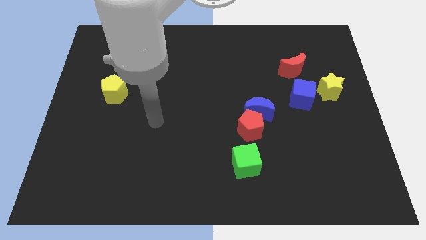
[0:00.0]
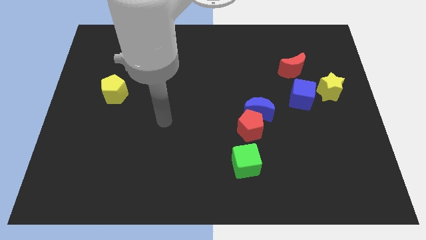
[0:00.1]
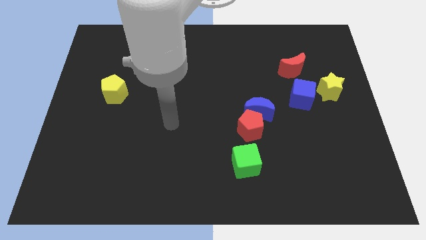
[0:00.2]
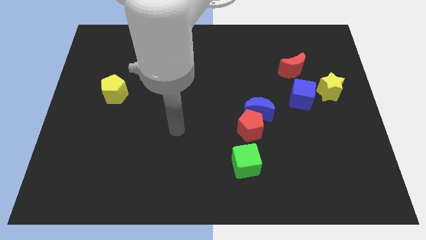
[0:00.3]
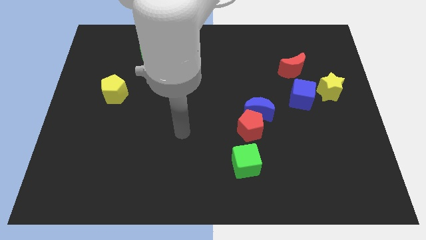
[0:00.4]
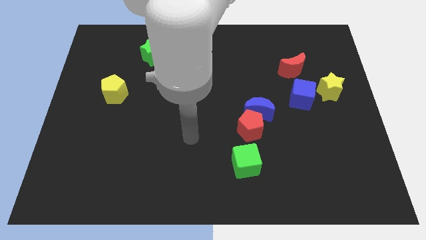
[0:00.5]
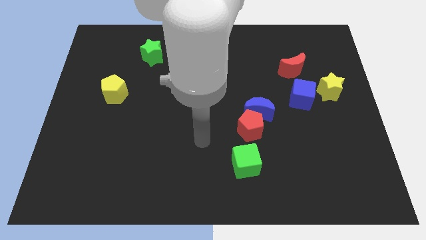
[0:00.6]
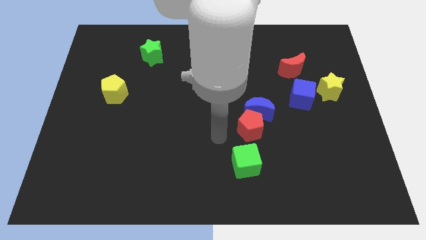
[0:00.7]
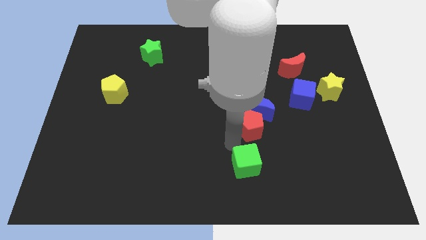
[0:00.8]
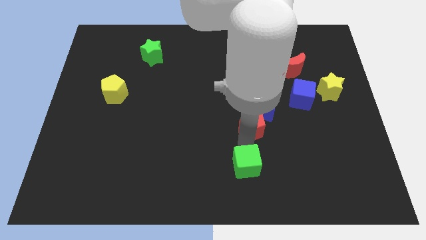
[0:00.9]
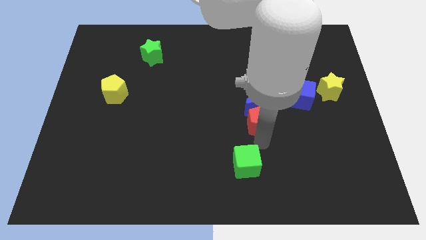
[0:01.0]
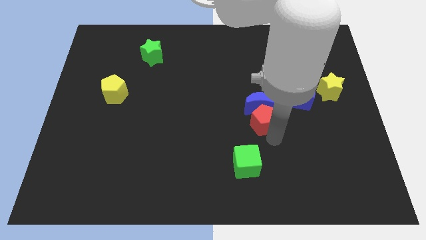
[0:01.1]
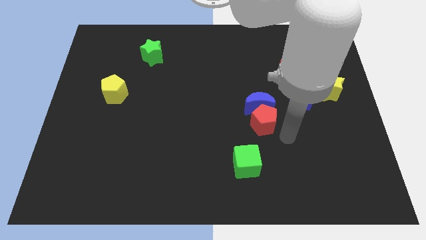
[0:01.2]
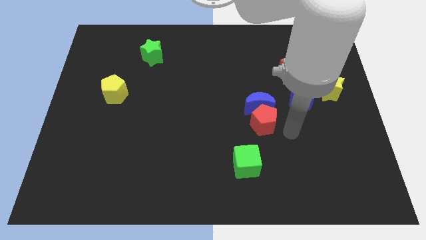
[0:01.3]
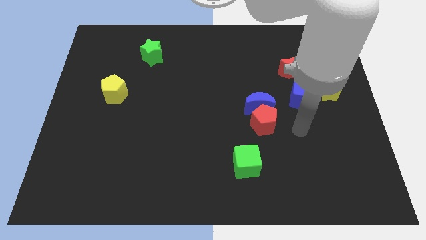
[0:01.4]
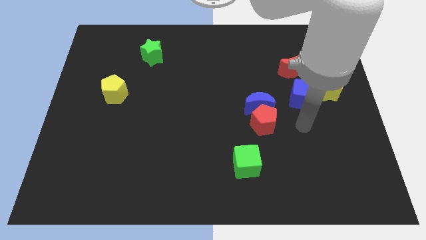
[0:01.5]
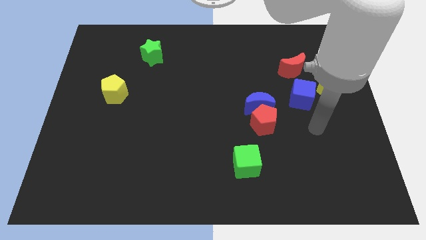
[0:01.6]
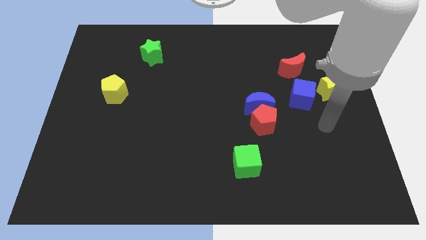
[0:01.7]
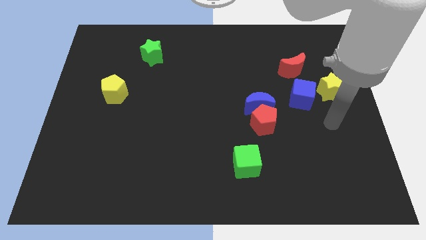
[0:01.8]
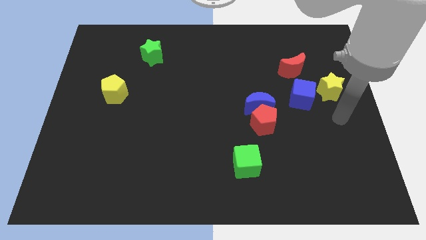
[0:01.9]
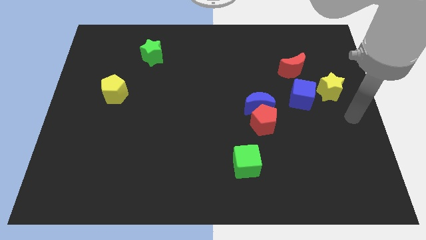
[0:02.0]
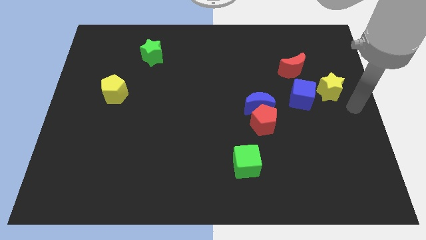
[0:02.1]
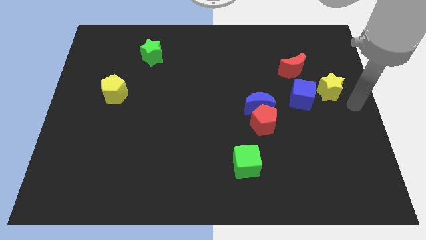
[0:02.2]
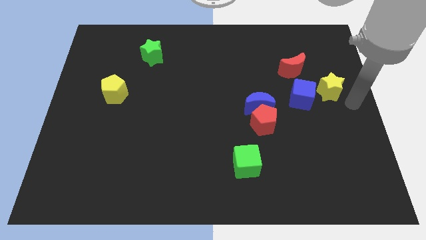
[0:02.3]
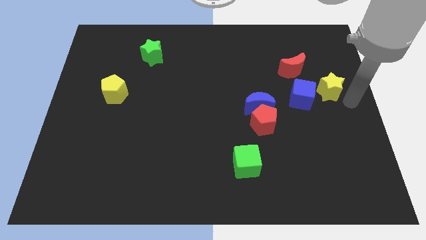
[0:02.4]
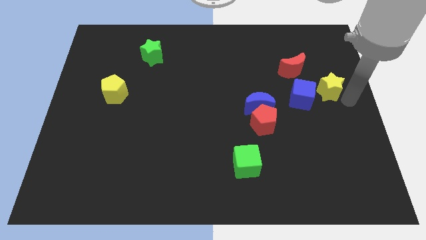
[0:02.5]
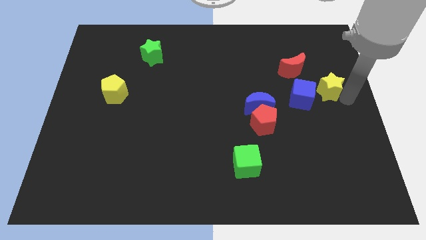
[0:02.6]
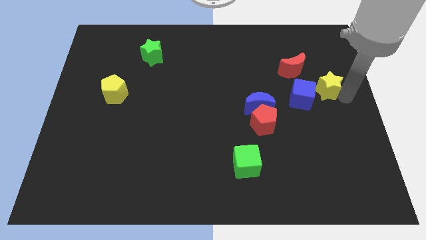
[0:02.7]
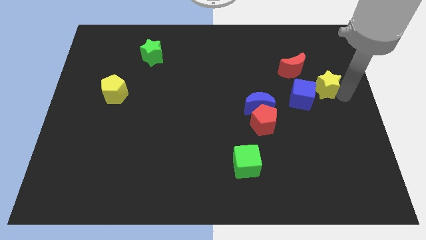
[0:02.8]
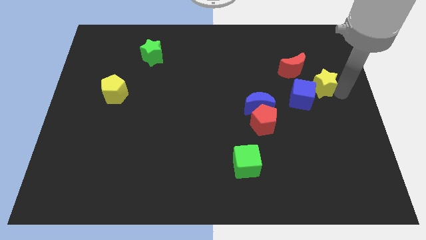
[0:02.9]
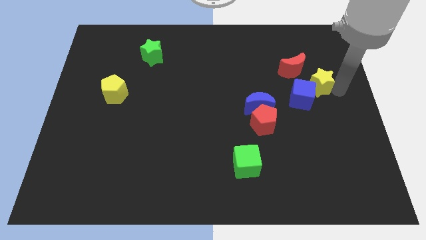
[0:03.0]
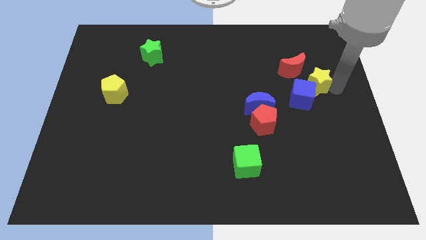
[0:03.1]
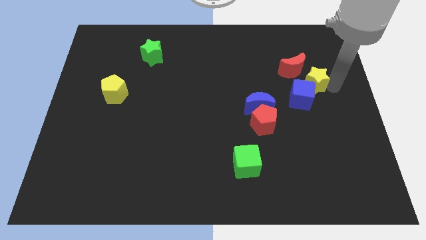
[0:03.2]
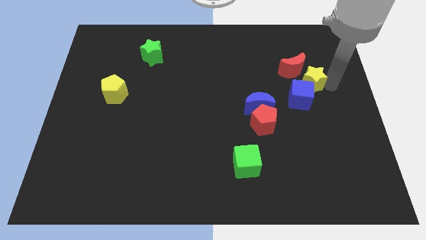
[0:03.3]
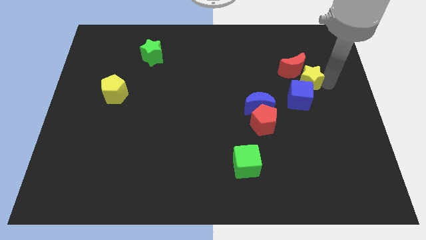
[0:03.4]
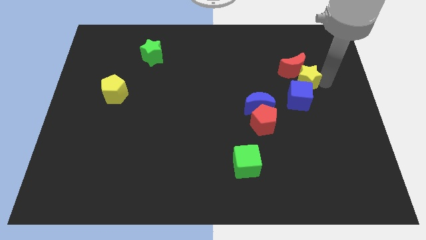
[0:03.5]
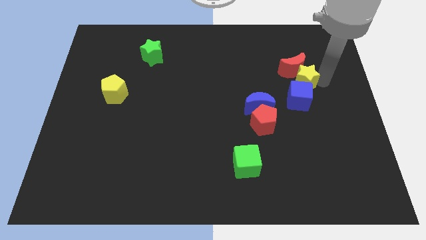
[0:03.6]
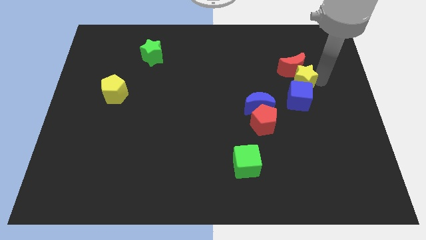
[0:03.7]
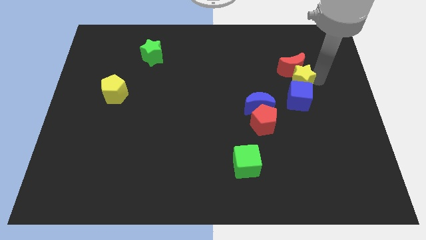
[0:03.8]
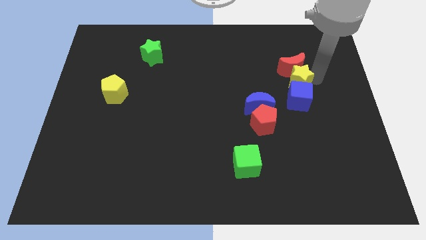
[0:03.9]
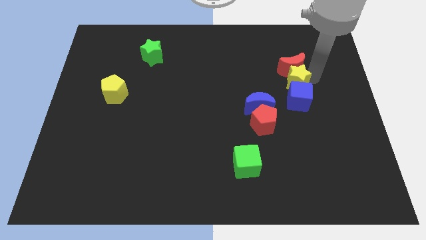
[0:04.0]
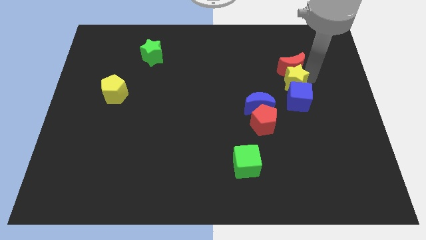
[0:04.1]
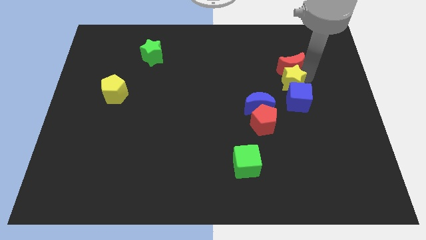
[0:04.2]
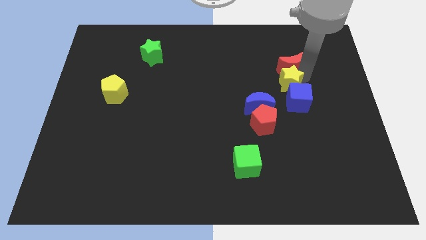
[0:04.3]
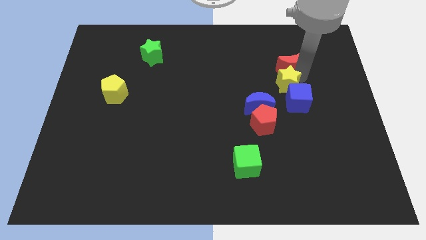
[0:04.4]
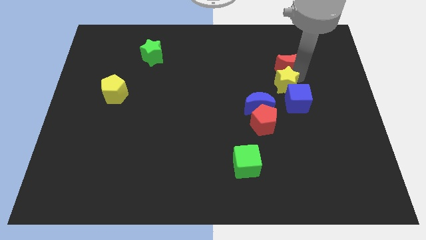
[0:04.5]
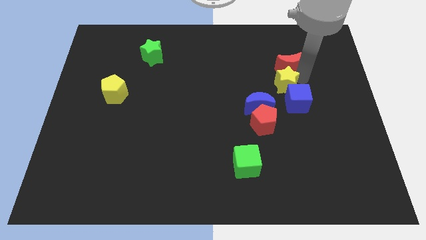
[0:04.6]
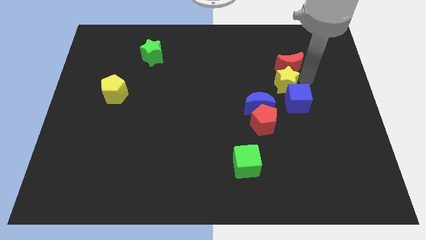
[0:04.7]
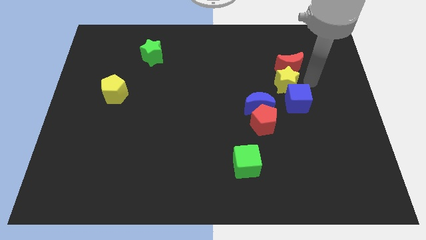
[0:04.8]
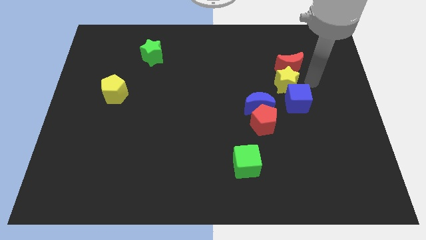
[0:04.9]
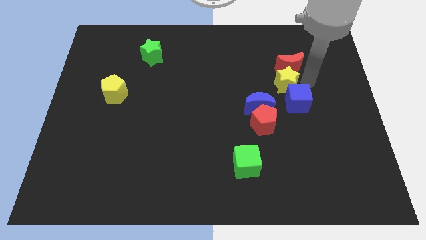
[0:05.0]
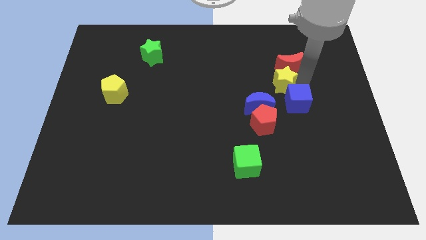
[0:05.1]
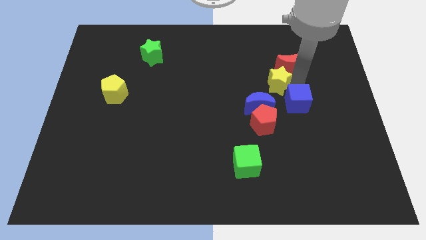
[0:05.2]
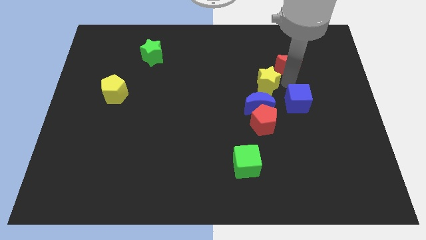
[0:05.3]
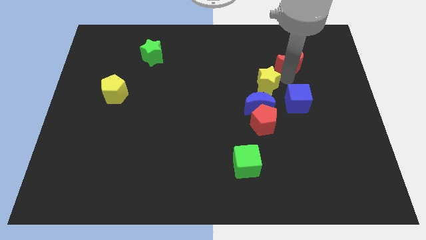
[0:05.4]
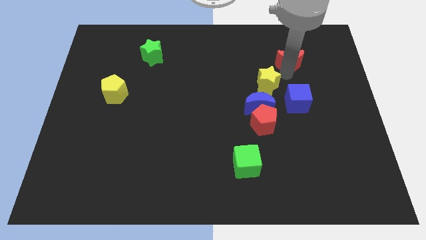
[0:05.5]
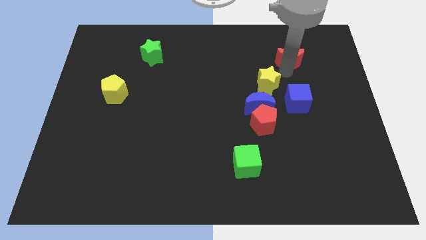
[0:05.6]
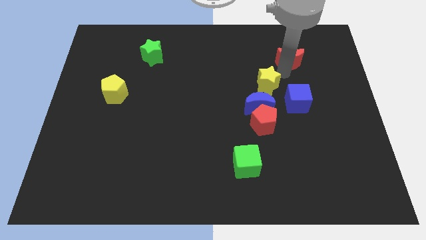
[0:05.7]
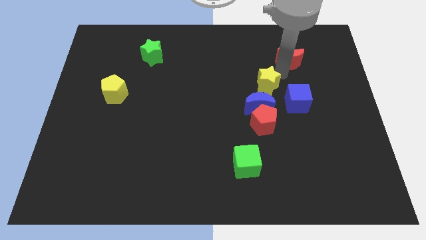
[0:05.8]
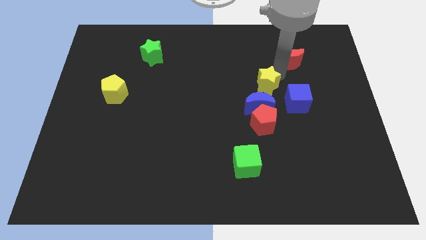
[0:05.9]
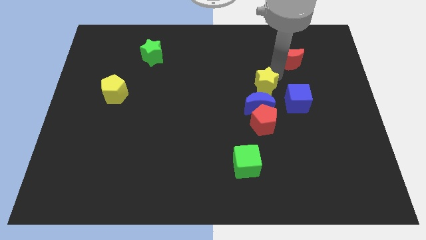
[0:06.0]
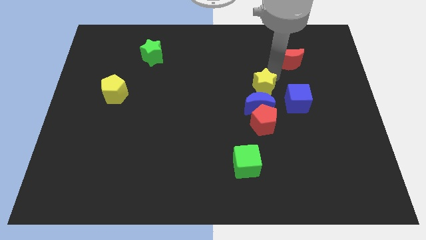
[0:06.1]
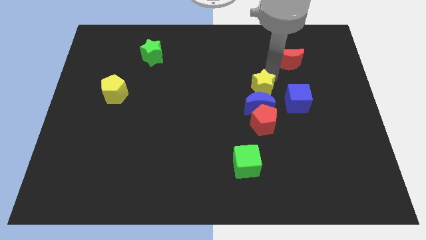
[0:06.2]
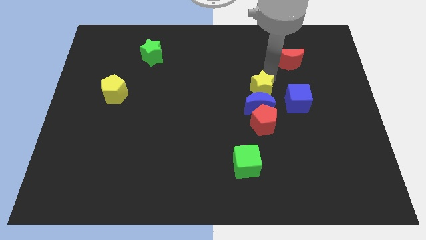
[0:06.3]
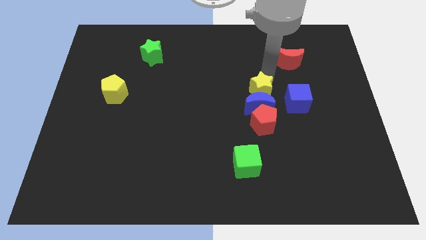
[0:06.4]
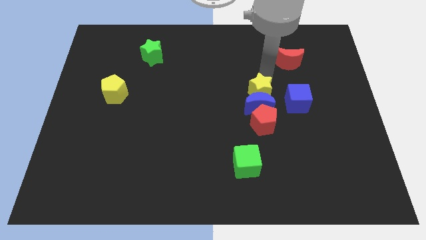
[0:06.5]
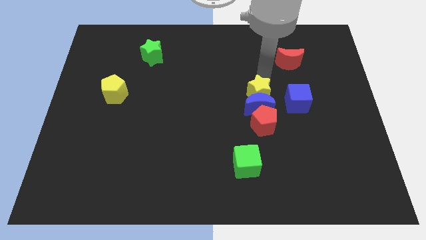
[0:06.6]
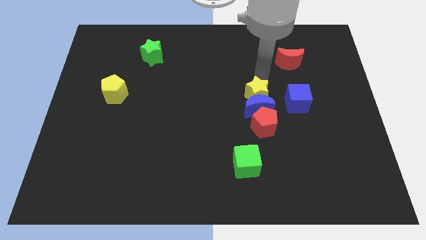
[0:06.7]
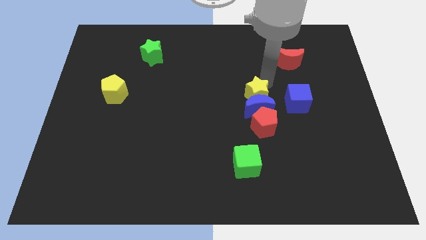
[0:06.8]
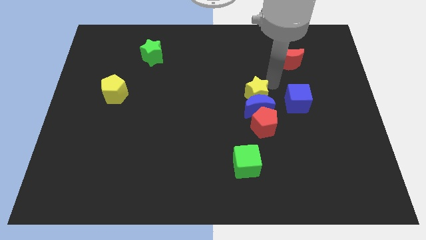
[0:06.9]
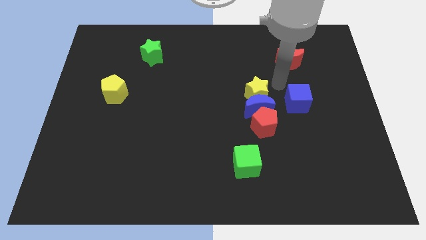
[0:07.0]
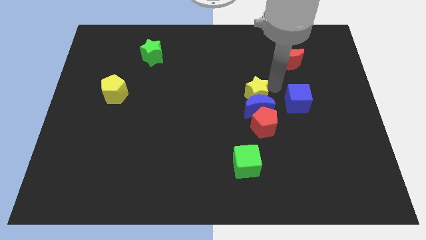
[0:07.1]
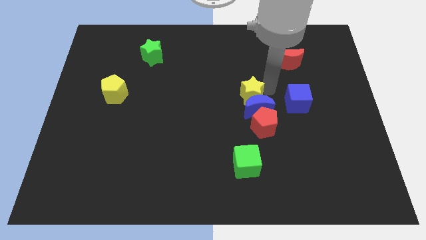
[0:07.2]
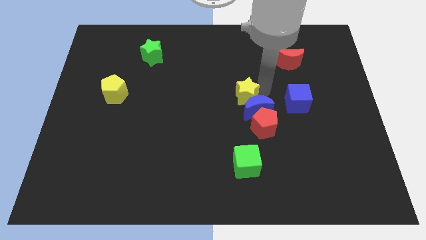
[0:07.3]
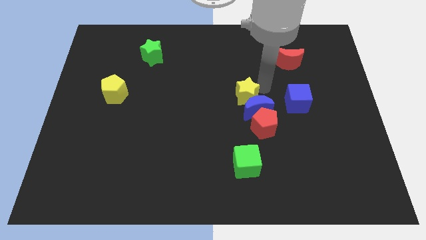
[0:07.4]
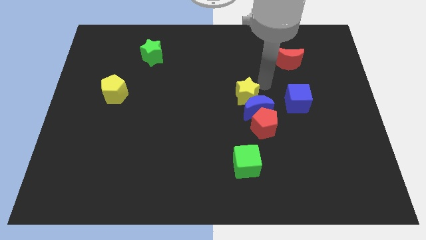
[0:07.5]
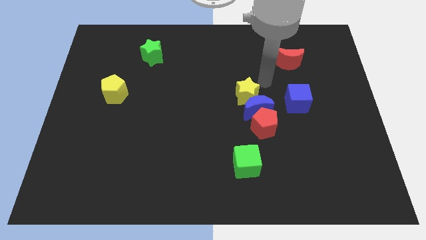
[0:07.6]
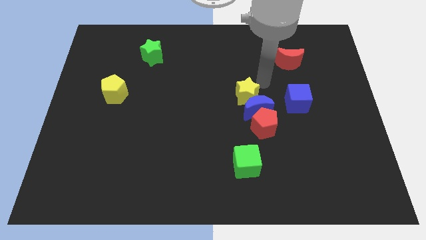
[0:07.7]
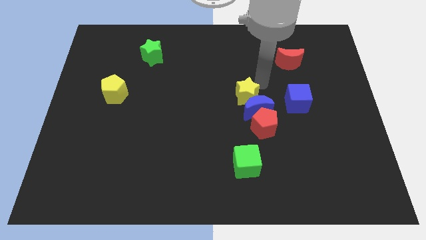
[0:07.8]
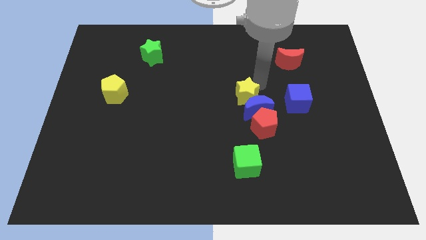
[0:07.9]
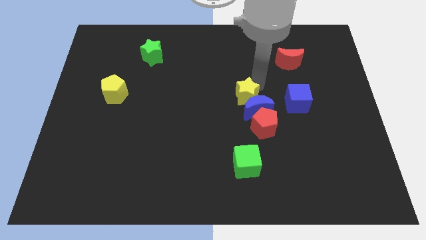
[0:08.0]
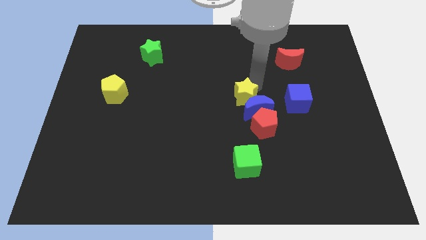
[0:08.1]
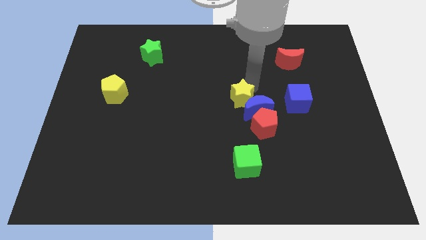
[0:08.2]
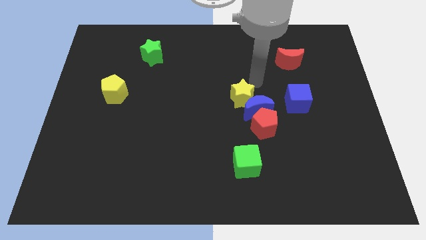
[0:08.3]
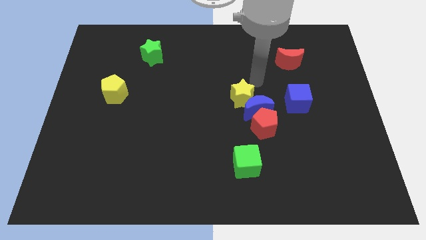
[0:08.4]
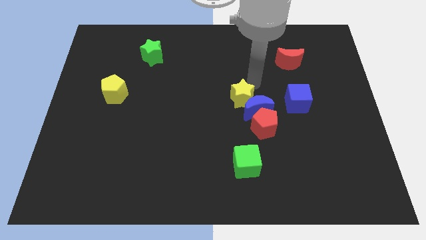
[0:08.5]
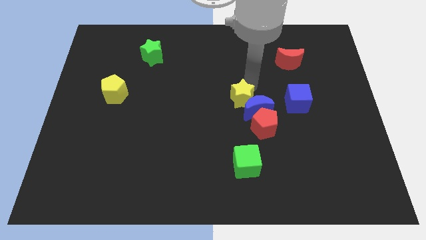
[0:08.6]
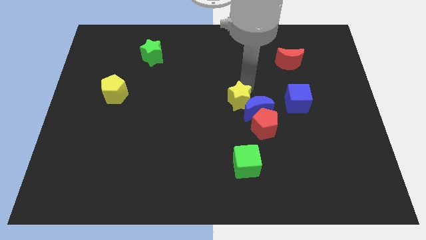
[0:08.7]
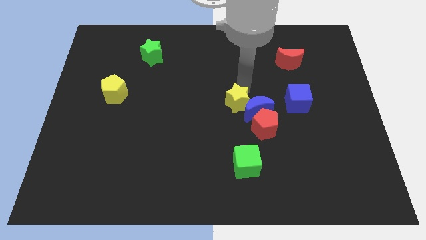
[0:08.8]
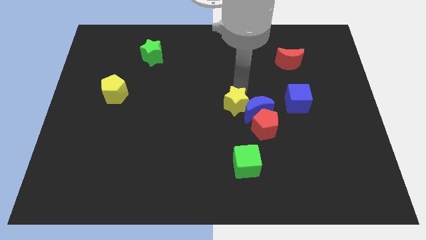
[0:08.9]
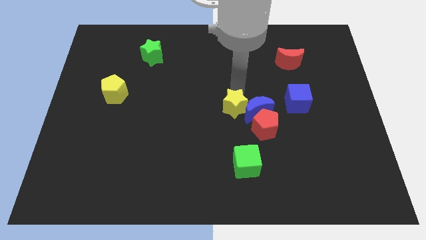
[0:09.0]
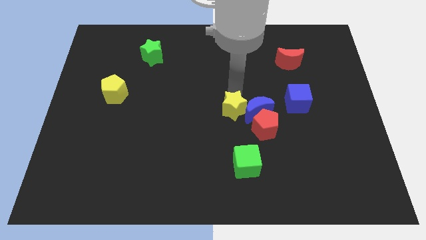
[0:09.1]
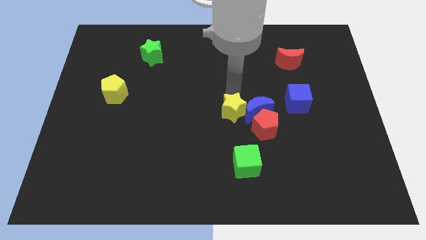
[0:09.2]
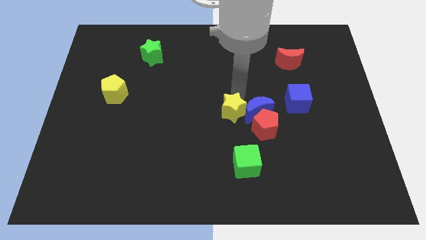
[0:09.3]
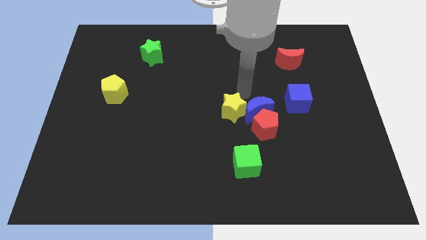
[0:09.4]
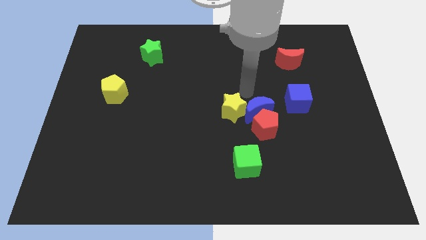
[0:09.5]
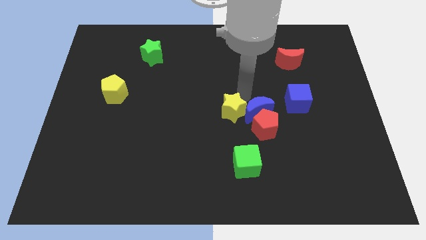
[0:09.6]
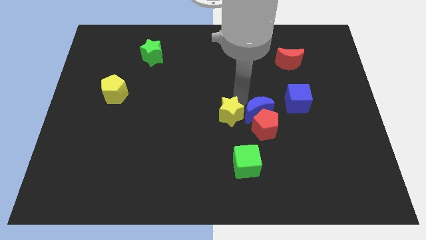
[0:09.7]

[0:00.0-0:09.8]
slide the yellow star left of the red pentagon
